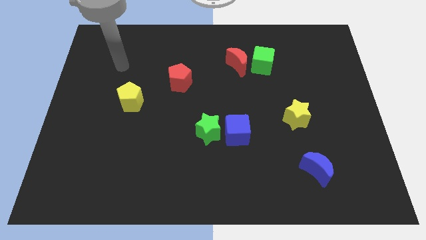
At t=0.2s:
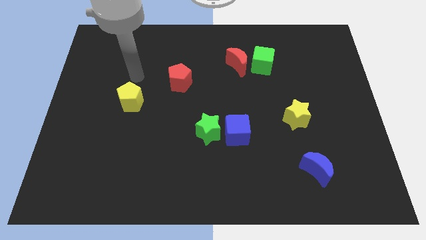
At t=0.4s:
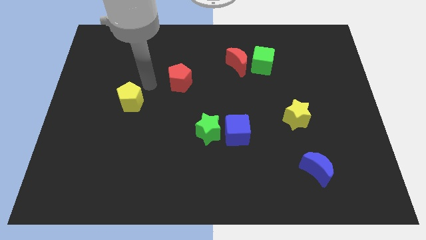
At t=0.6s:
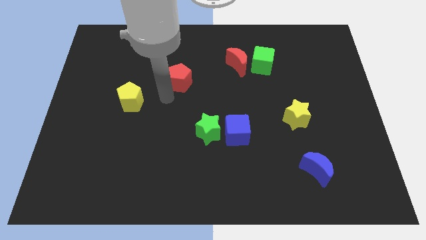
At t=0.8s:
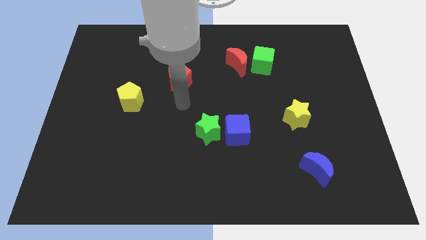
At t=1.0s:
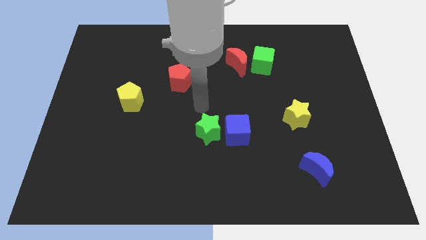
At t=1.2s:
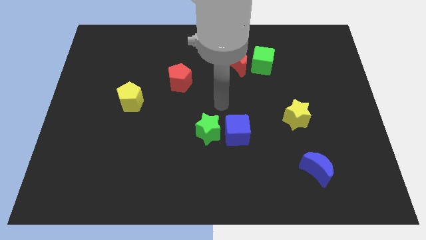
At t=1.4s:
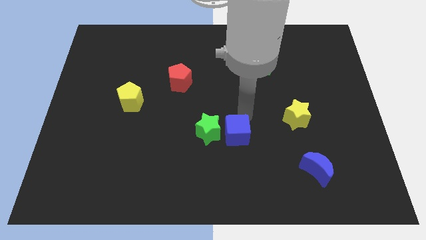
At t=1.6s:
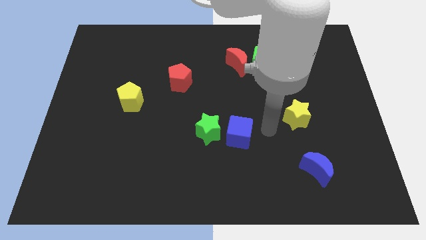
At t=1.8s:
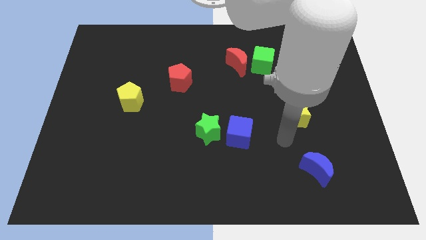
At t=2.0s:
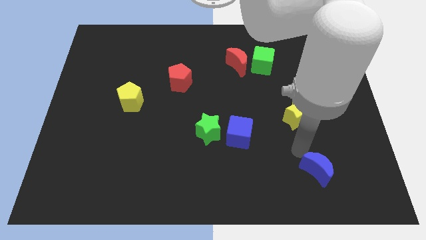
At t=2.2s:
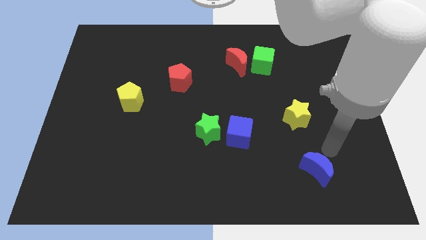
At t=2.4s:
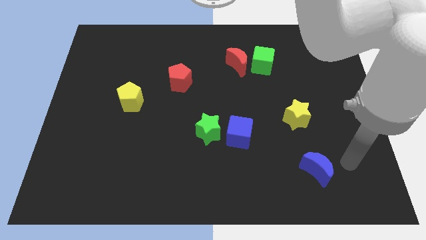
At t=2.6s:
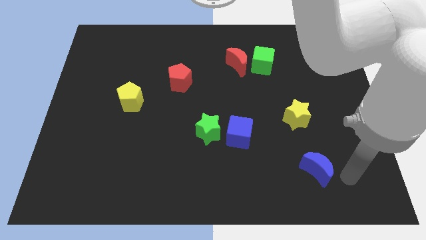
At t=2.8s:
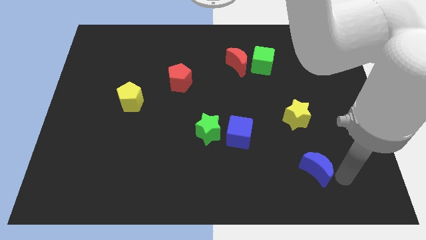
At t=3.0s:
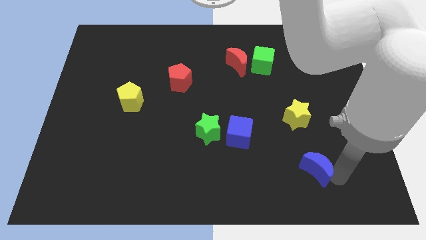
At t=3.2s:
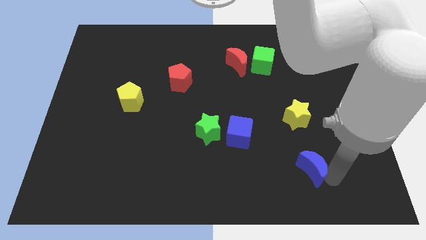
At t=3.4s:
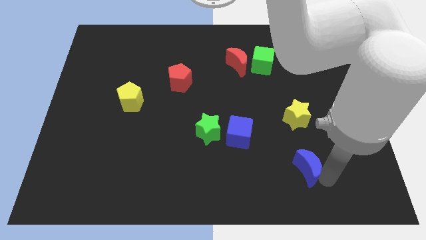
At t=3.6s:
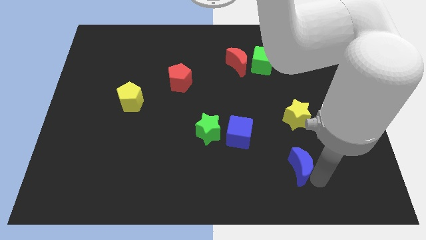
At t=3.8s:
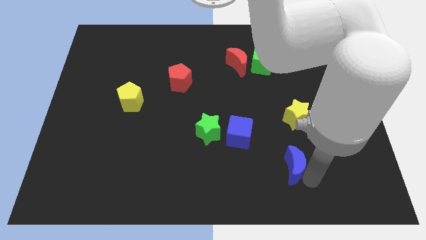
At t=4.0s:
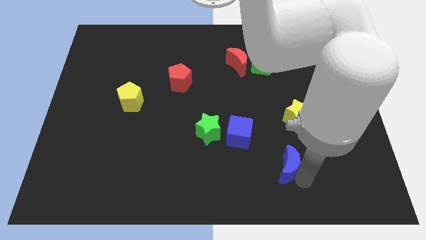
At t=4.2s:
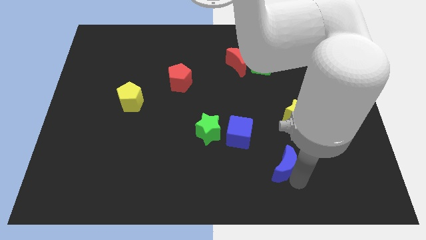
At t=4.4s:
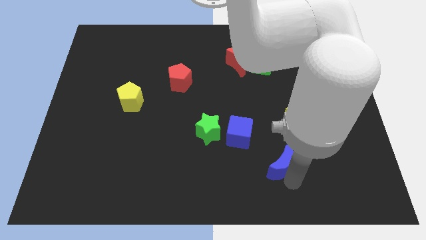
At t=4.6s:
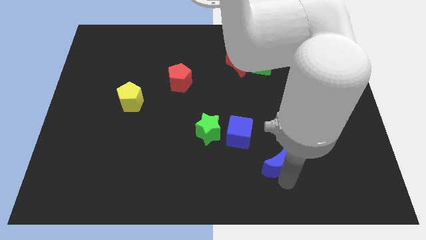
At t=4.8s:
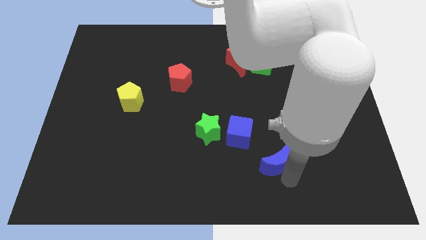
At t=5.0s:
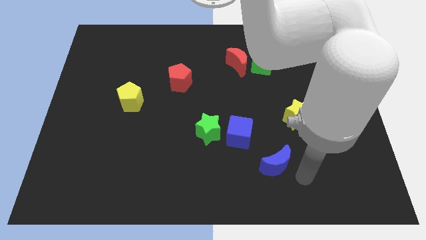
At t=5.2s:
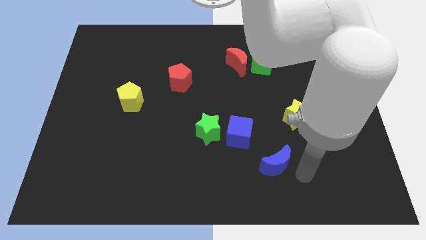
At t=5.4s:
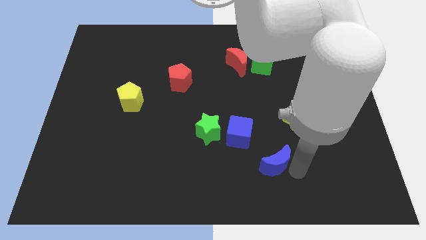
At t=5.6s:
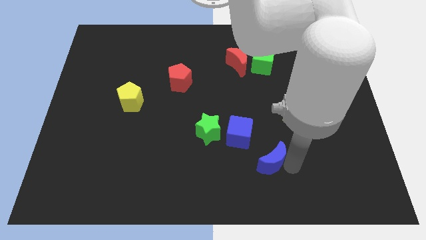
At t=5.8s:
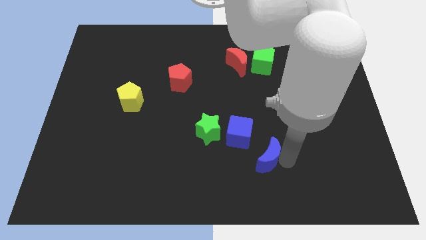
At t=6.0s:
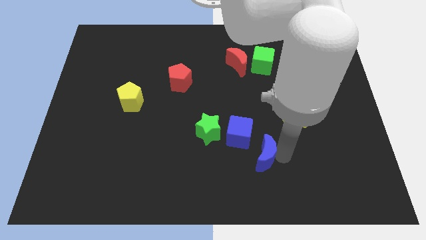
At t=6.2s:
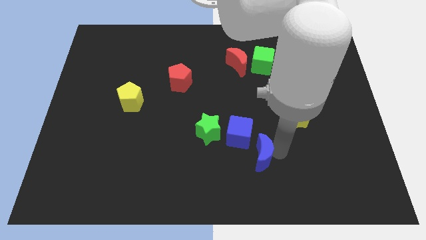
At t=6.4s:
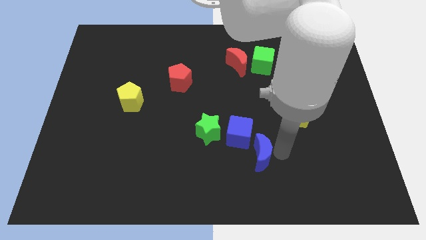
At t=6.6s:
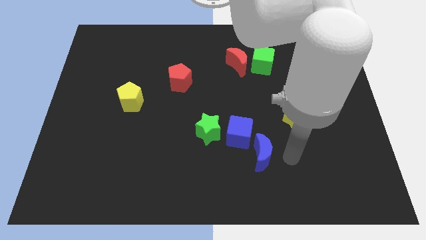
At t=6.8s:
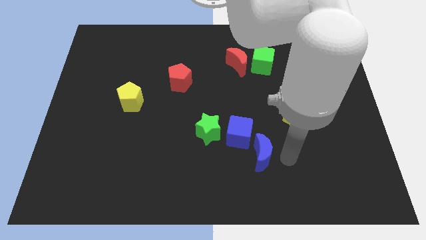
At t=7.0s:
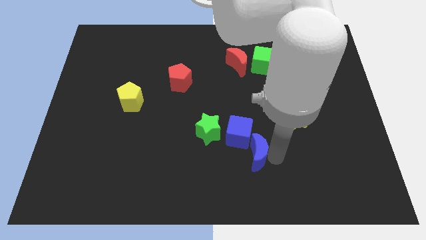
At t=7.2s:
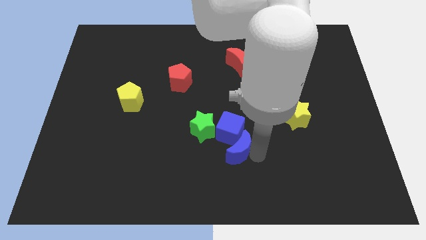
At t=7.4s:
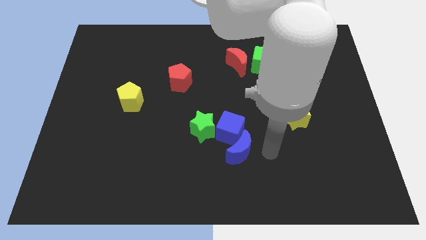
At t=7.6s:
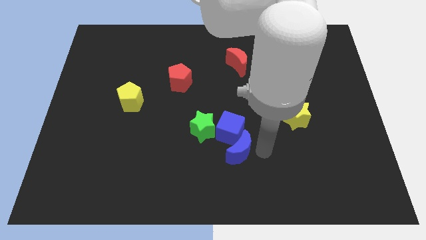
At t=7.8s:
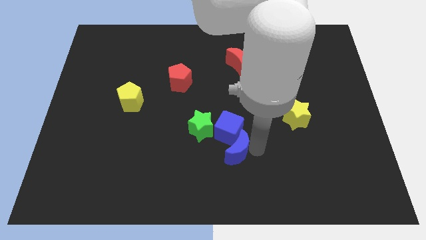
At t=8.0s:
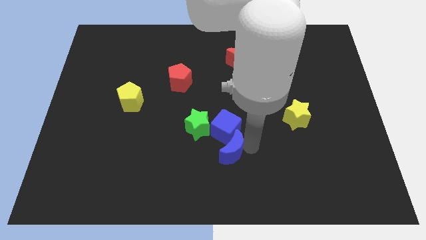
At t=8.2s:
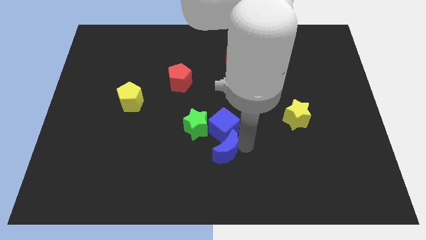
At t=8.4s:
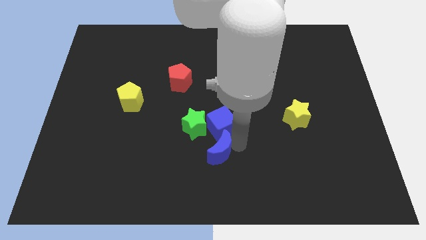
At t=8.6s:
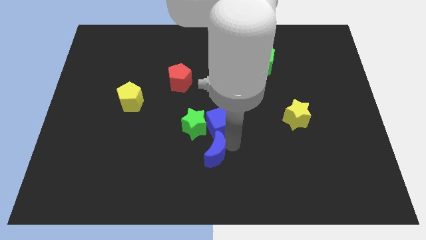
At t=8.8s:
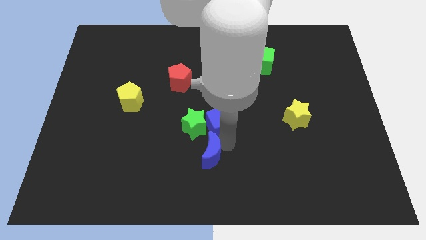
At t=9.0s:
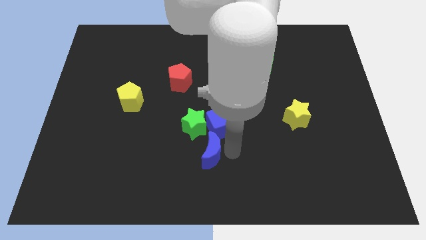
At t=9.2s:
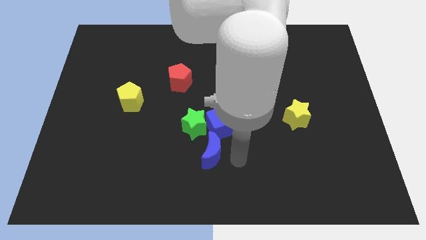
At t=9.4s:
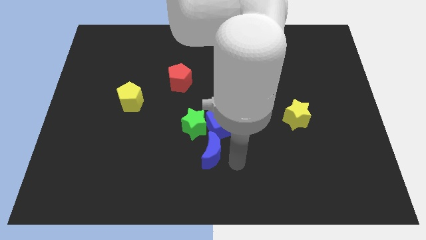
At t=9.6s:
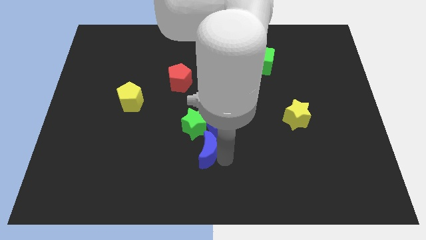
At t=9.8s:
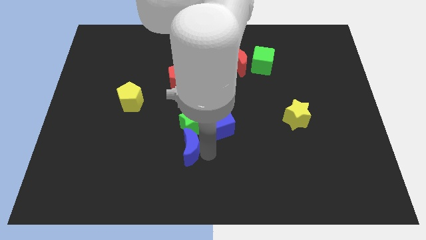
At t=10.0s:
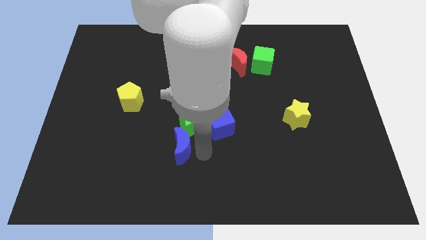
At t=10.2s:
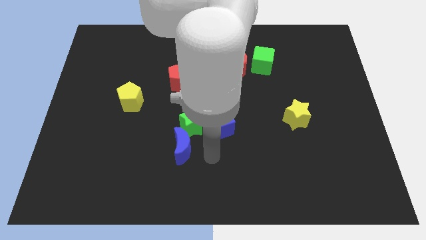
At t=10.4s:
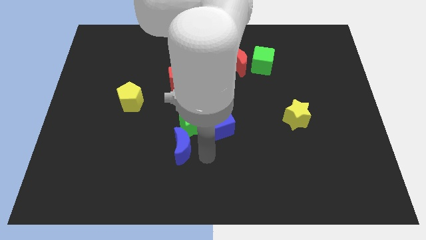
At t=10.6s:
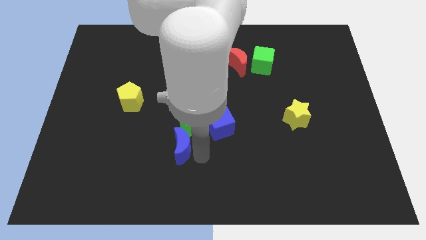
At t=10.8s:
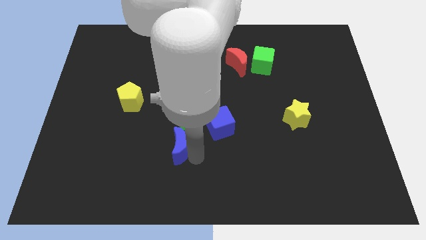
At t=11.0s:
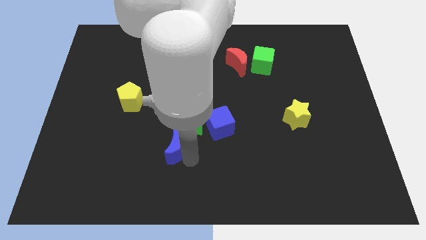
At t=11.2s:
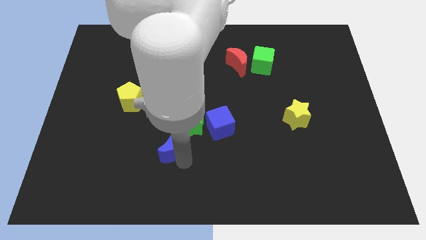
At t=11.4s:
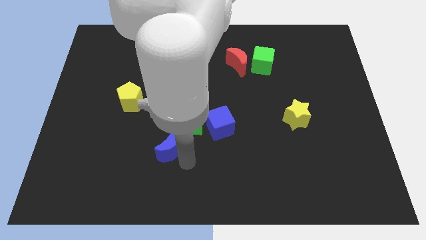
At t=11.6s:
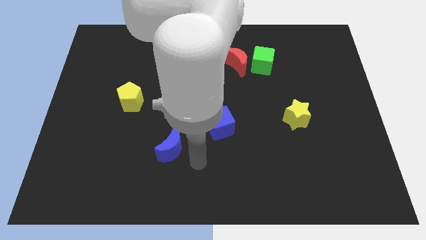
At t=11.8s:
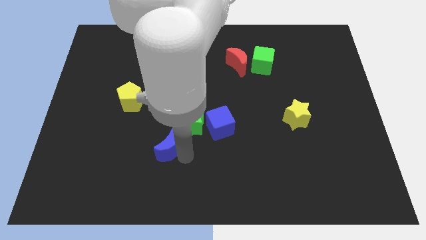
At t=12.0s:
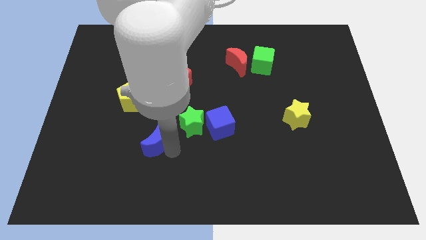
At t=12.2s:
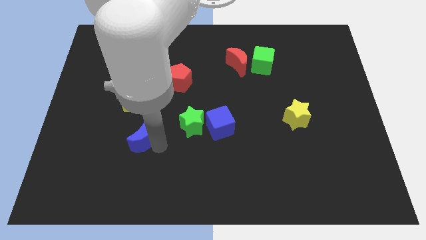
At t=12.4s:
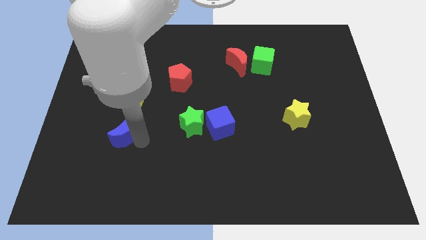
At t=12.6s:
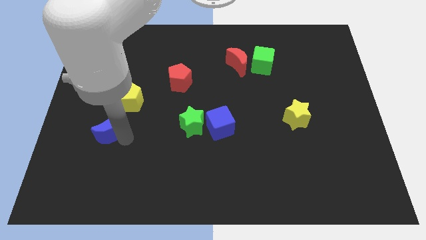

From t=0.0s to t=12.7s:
push the blue moon diagonally down and to the left of the yellow pentagon

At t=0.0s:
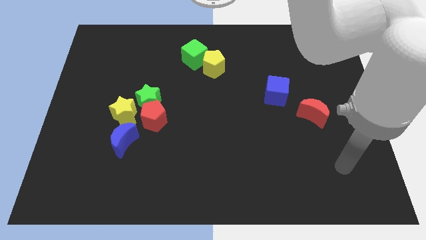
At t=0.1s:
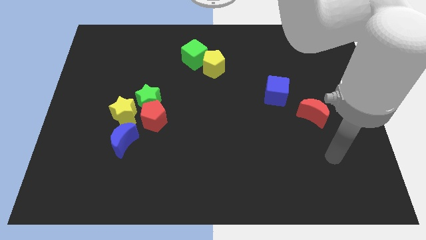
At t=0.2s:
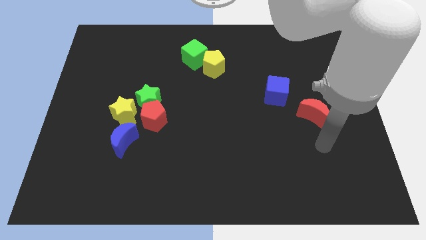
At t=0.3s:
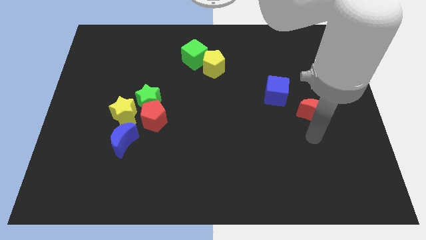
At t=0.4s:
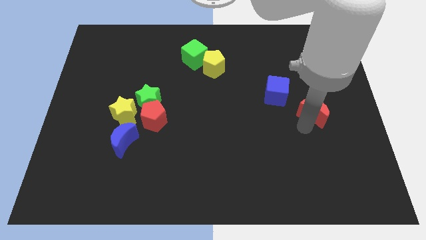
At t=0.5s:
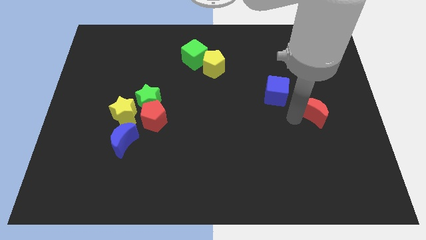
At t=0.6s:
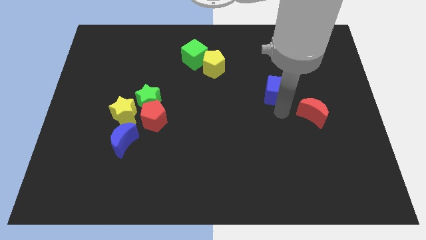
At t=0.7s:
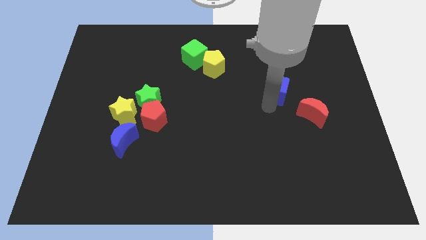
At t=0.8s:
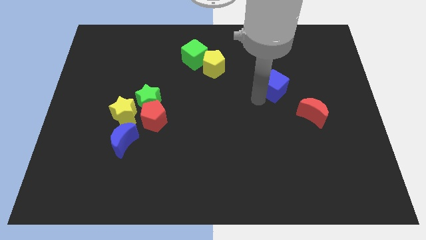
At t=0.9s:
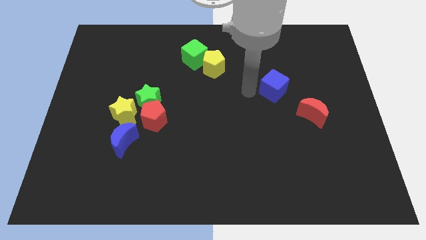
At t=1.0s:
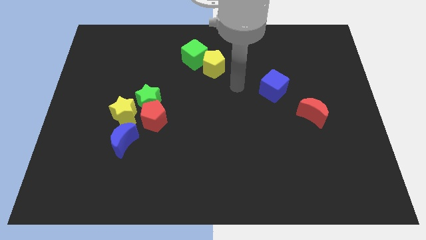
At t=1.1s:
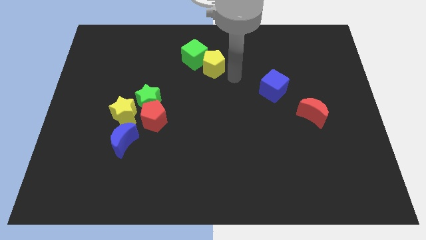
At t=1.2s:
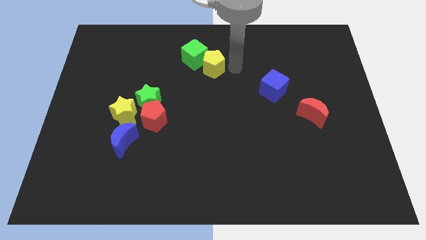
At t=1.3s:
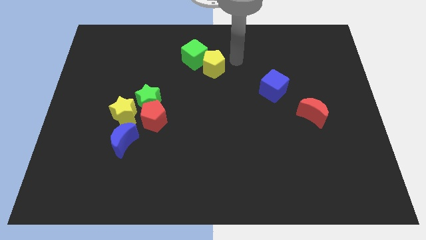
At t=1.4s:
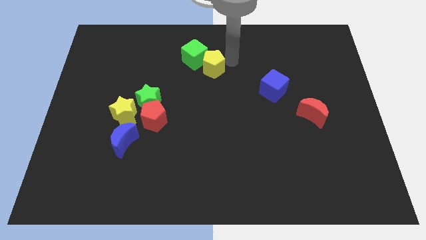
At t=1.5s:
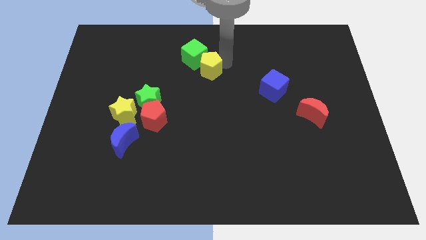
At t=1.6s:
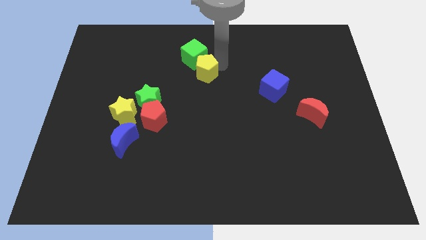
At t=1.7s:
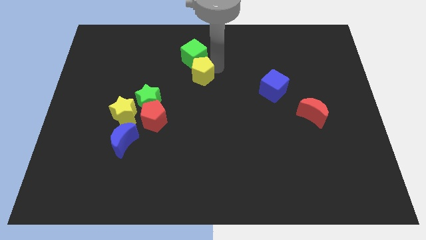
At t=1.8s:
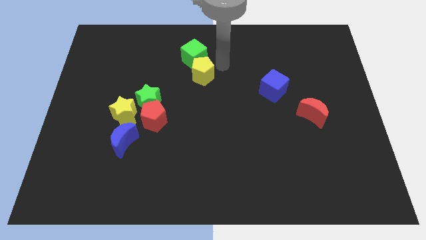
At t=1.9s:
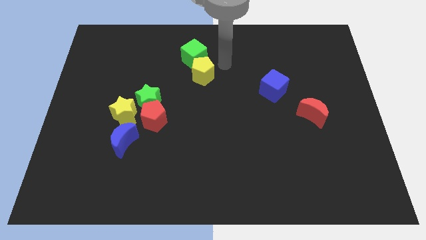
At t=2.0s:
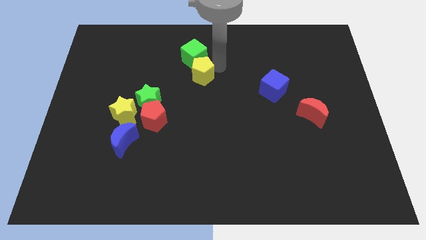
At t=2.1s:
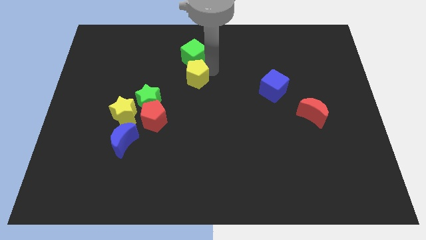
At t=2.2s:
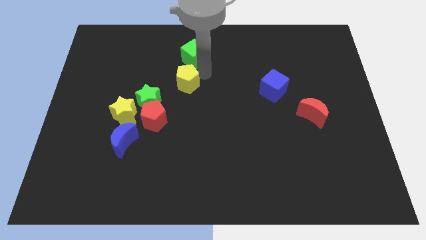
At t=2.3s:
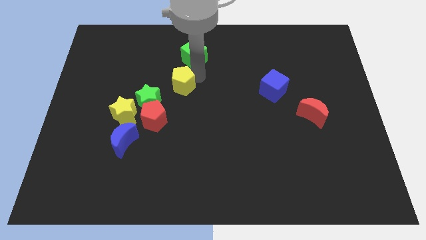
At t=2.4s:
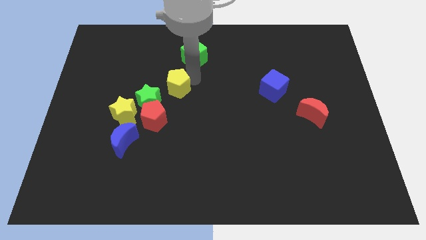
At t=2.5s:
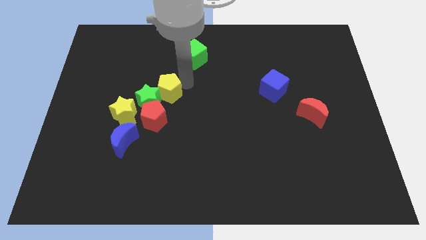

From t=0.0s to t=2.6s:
move the yellow pentagon to the top right of the yellow star
